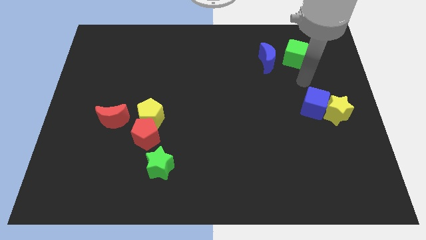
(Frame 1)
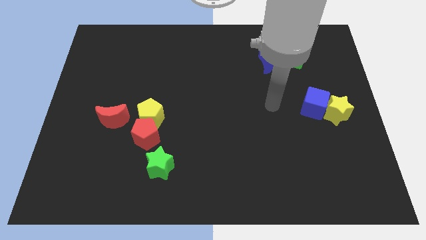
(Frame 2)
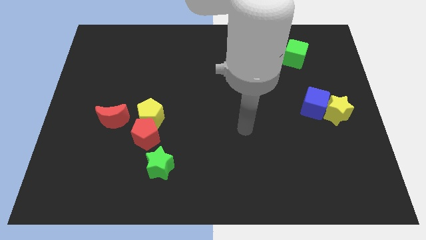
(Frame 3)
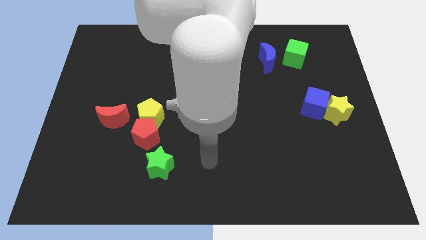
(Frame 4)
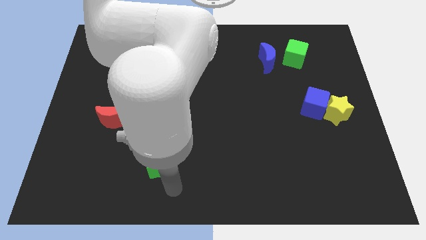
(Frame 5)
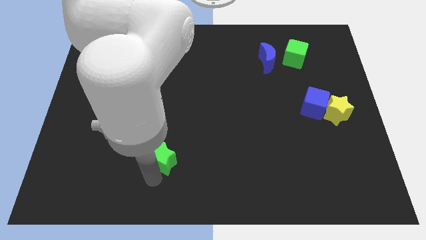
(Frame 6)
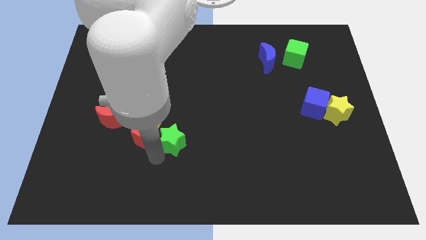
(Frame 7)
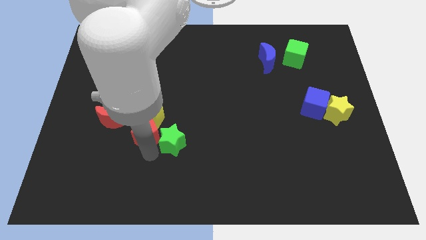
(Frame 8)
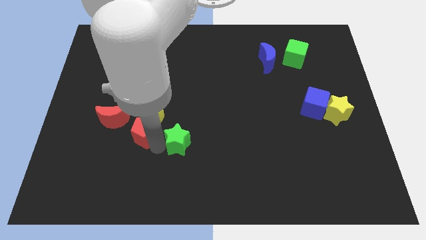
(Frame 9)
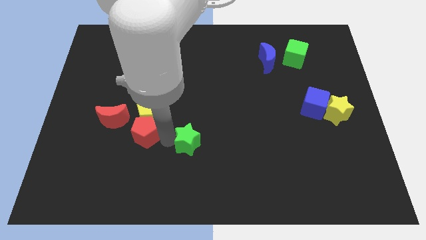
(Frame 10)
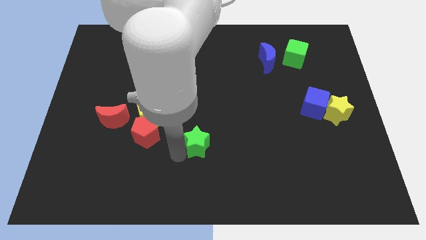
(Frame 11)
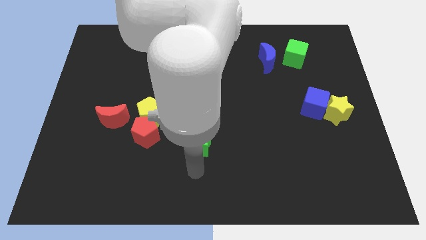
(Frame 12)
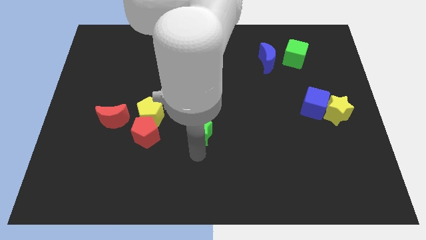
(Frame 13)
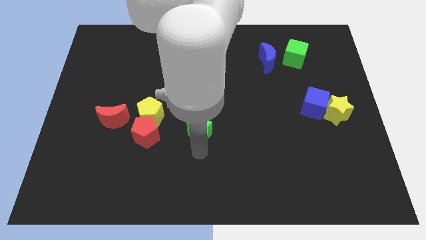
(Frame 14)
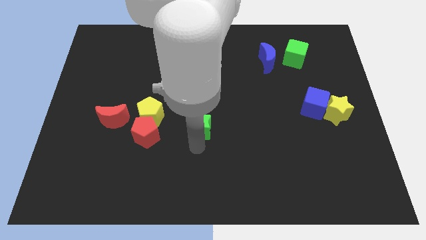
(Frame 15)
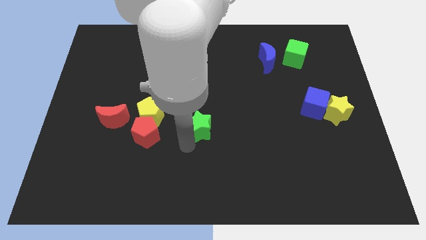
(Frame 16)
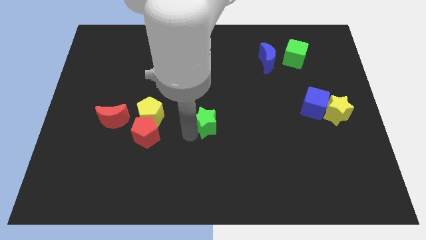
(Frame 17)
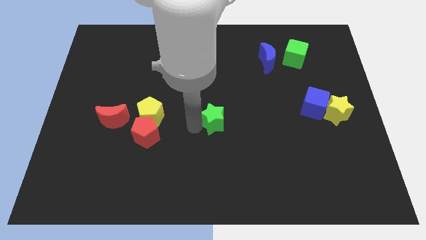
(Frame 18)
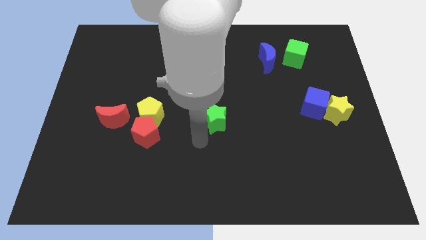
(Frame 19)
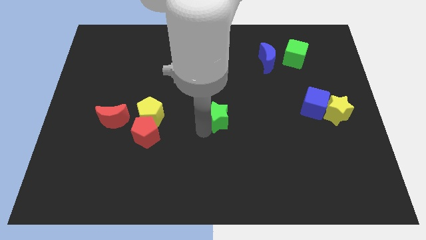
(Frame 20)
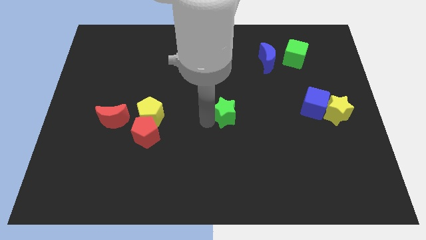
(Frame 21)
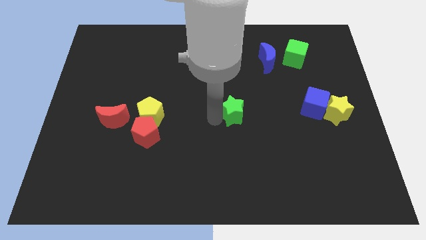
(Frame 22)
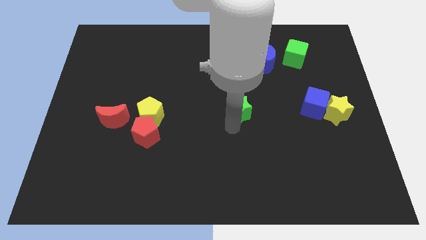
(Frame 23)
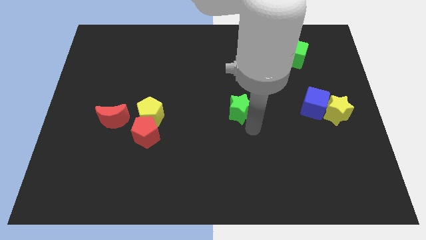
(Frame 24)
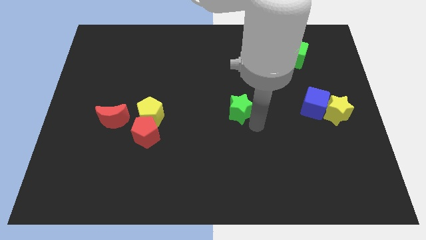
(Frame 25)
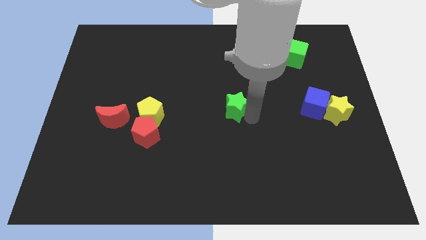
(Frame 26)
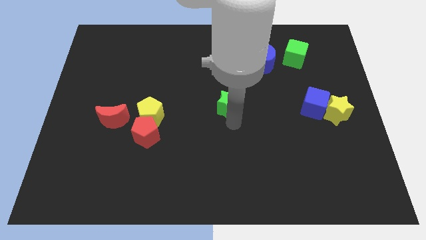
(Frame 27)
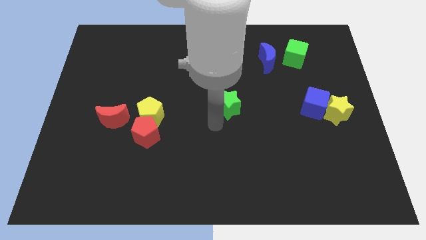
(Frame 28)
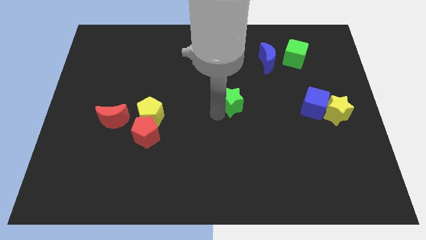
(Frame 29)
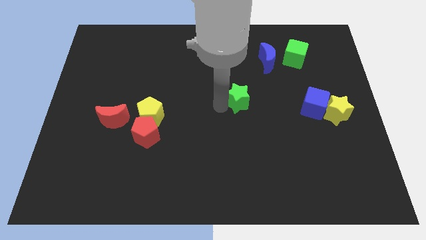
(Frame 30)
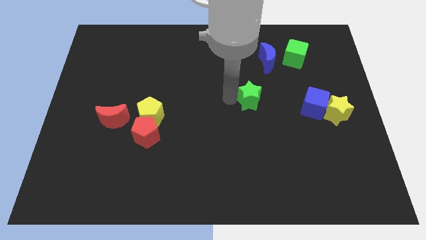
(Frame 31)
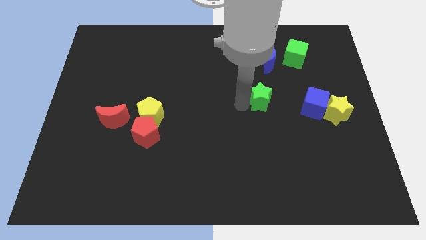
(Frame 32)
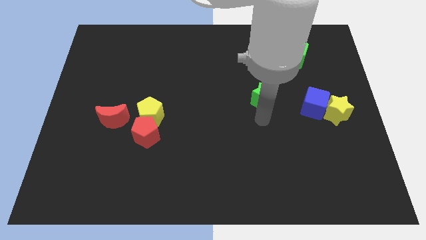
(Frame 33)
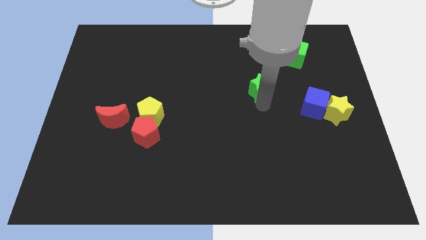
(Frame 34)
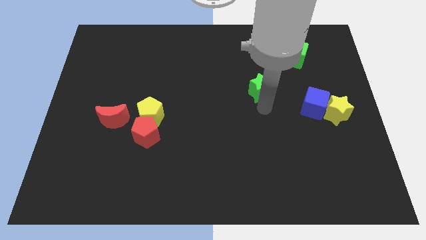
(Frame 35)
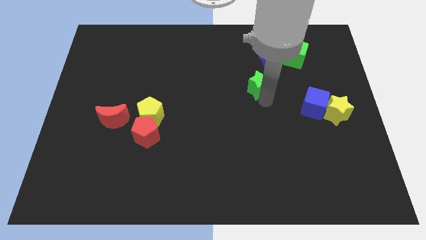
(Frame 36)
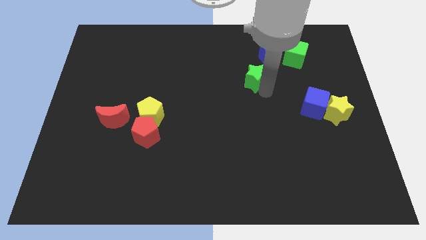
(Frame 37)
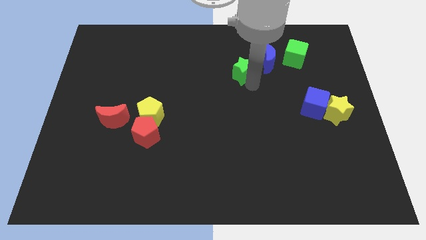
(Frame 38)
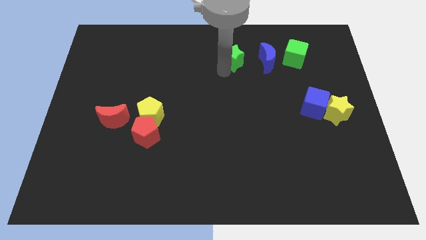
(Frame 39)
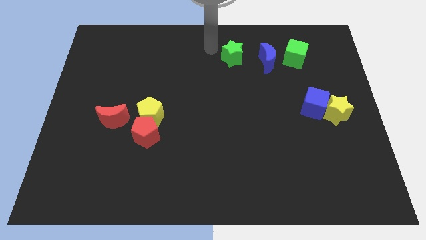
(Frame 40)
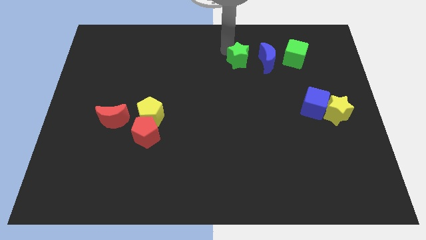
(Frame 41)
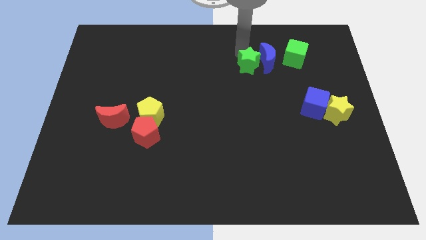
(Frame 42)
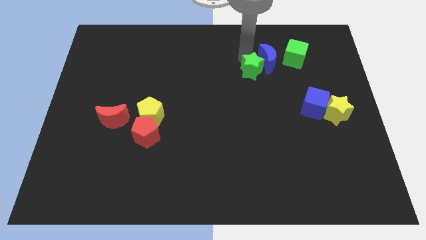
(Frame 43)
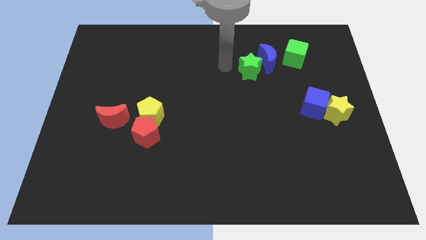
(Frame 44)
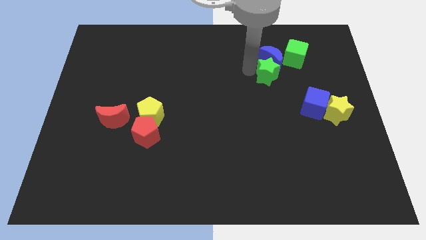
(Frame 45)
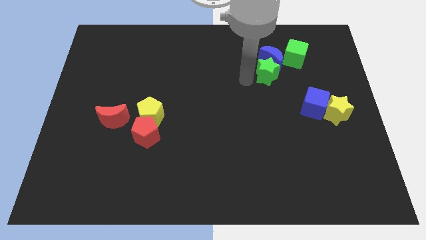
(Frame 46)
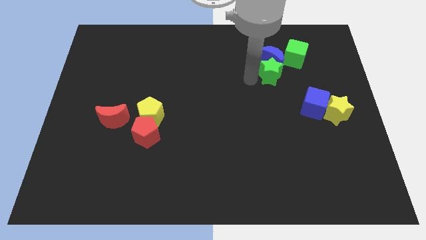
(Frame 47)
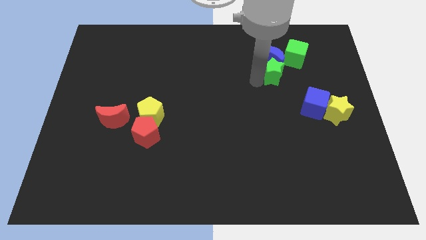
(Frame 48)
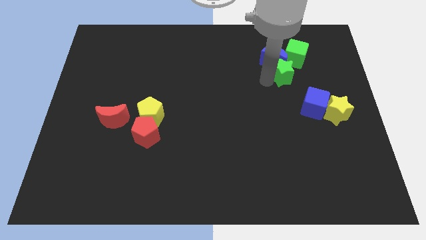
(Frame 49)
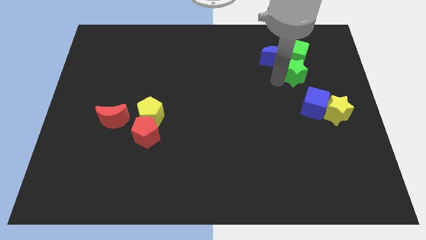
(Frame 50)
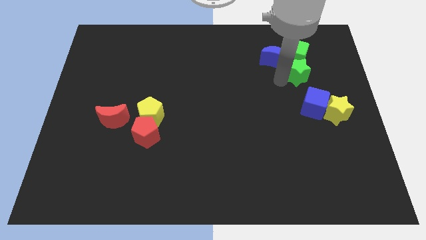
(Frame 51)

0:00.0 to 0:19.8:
push the green star next to the green cube

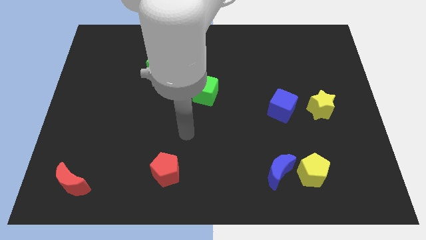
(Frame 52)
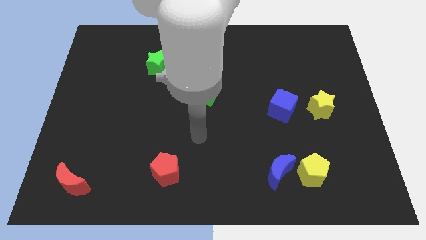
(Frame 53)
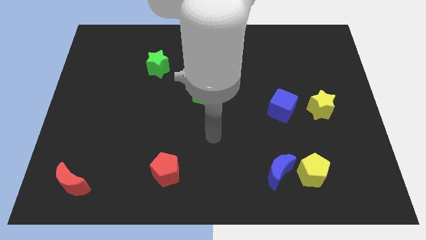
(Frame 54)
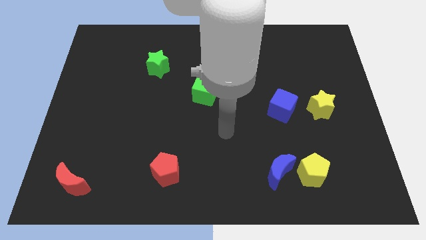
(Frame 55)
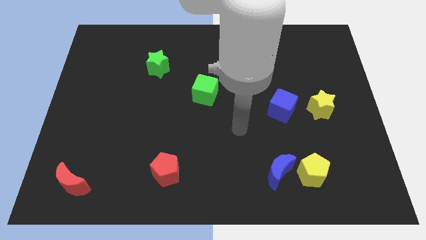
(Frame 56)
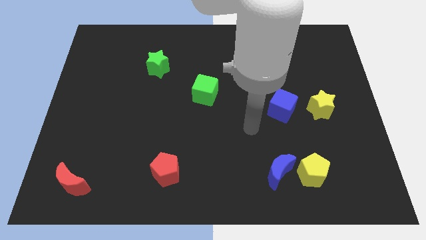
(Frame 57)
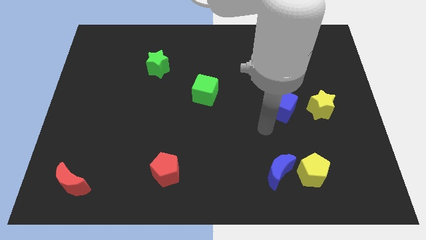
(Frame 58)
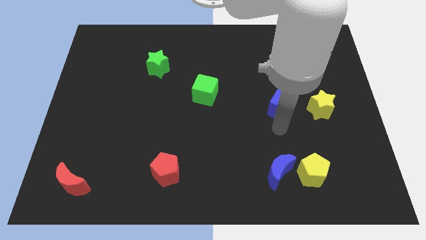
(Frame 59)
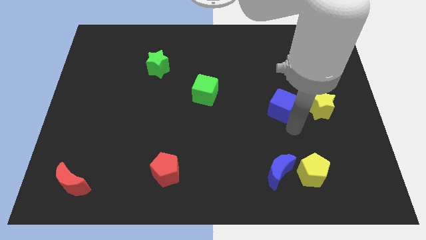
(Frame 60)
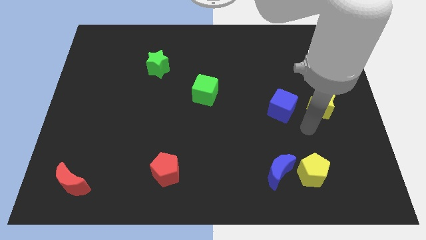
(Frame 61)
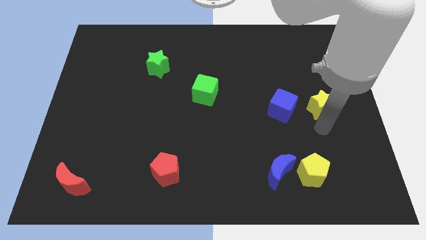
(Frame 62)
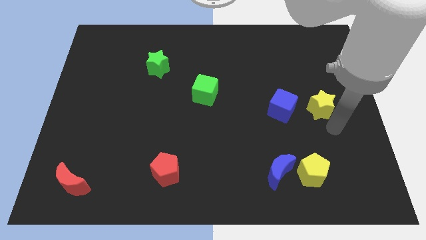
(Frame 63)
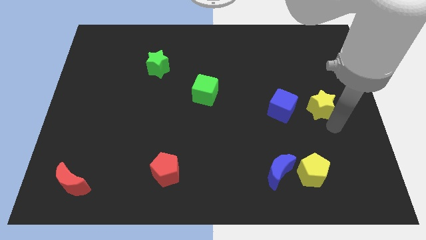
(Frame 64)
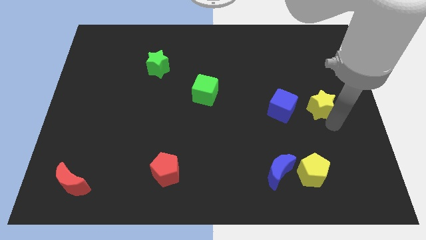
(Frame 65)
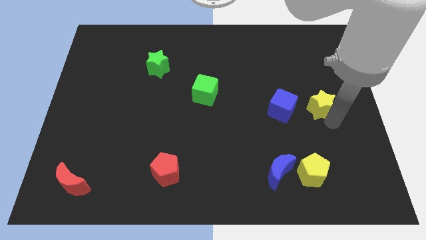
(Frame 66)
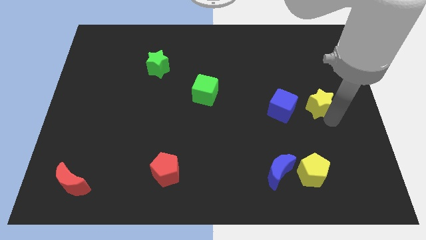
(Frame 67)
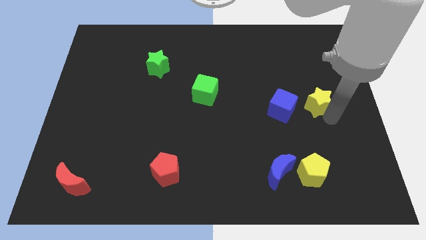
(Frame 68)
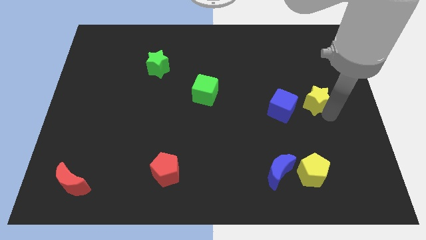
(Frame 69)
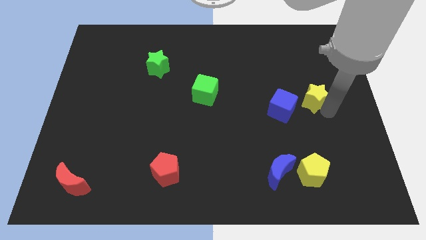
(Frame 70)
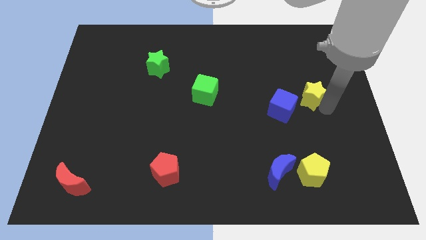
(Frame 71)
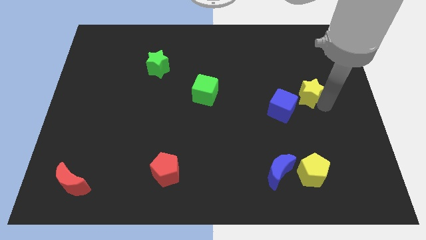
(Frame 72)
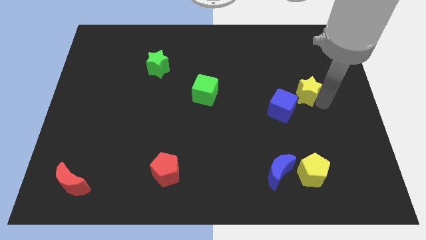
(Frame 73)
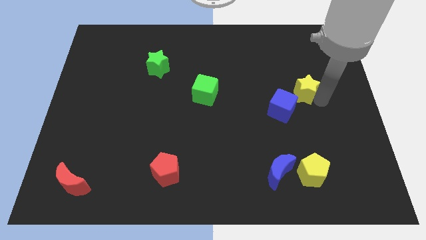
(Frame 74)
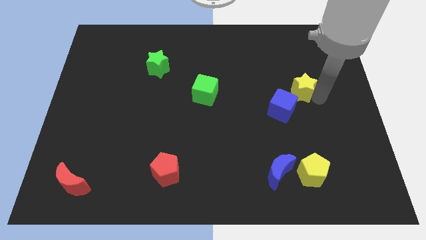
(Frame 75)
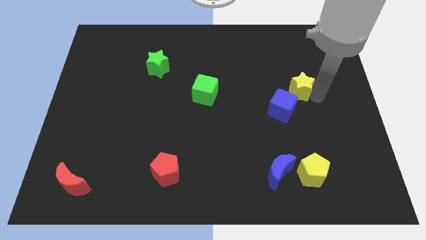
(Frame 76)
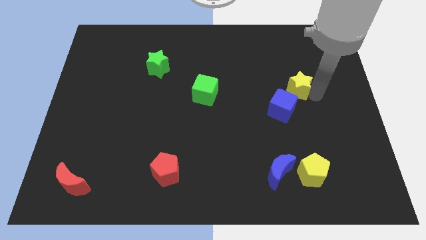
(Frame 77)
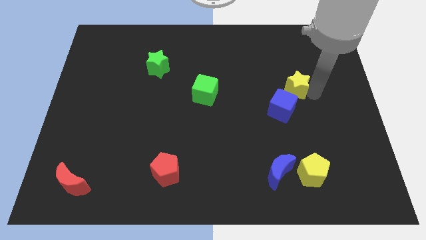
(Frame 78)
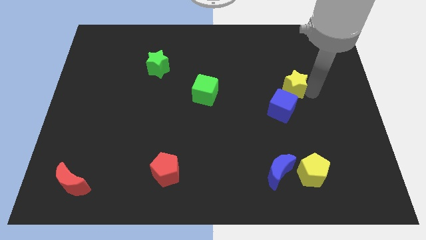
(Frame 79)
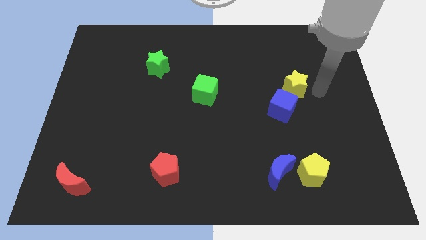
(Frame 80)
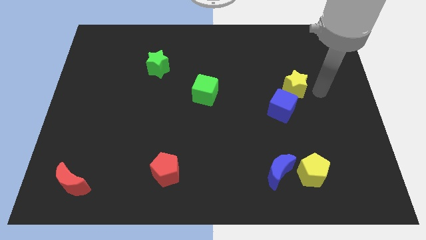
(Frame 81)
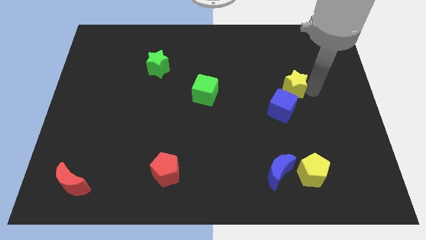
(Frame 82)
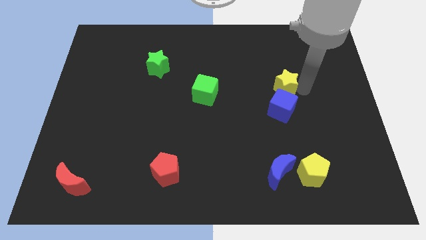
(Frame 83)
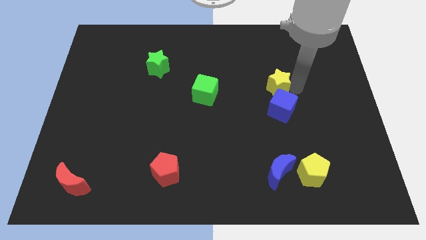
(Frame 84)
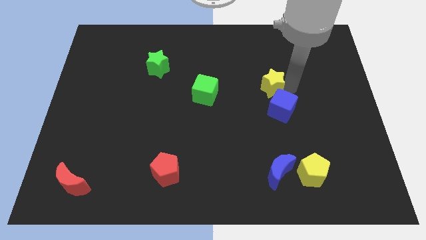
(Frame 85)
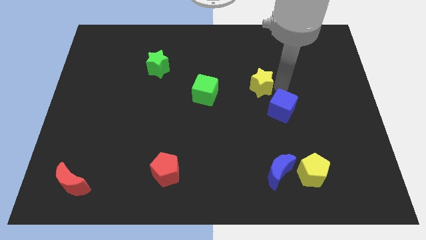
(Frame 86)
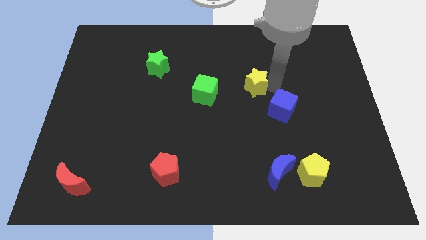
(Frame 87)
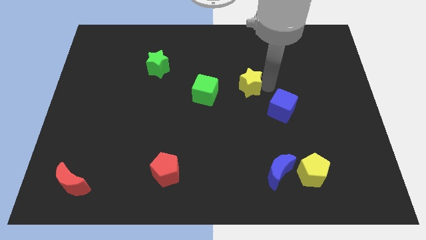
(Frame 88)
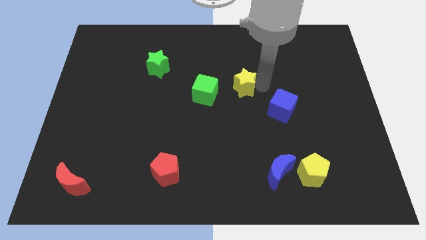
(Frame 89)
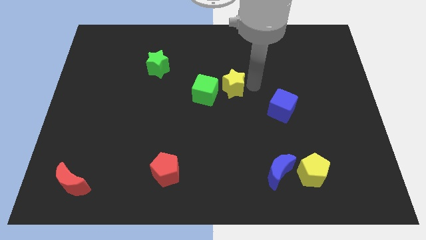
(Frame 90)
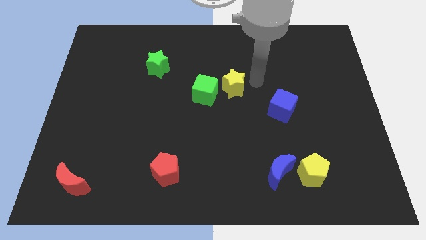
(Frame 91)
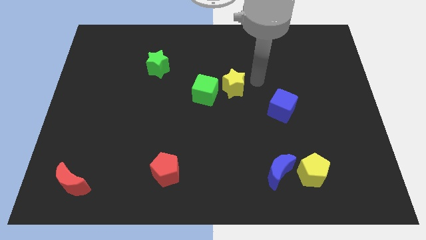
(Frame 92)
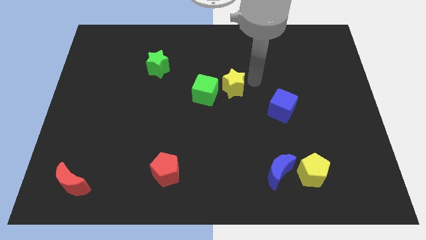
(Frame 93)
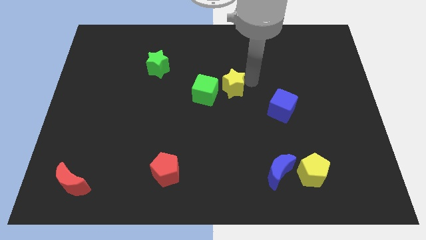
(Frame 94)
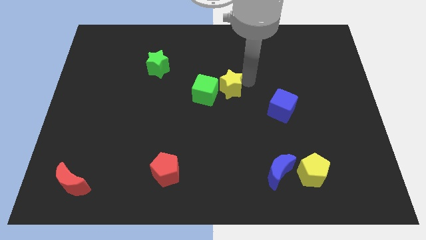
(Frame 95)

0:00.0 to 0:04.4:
push the yellow star next to the green cube
